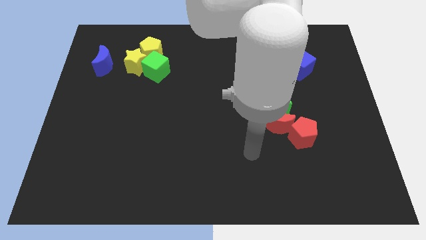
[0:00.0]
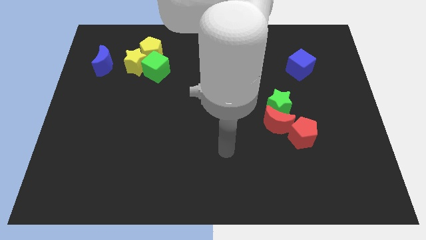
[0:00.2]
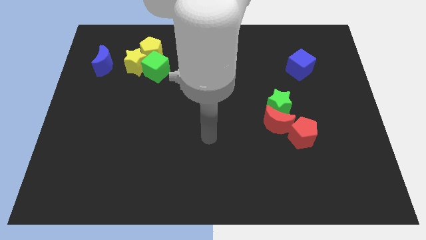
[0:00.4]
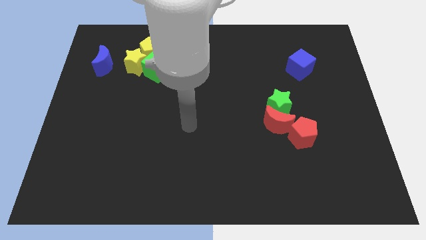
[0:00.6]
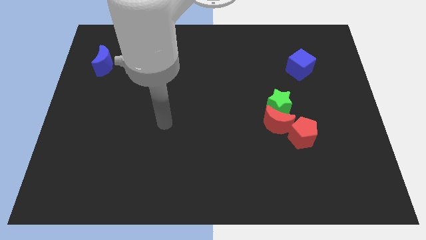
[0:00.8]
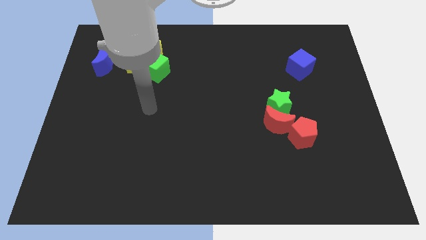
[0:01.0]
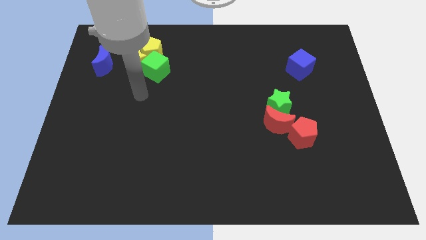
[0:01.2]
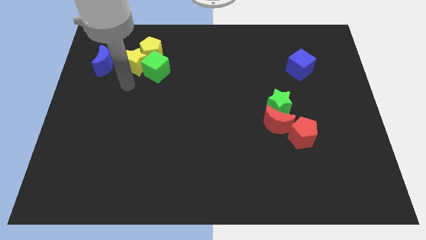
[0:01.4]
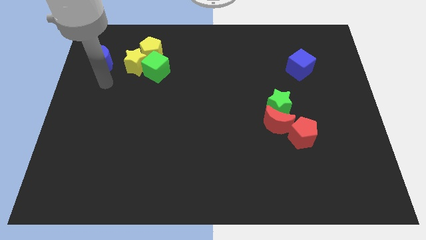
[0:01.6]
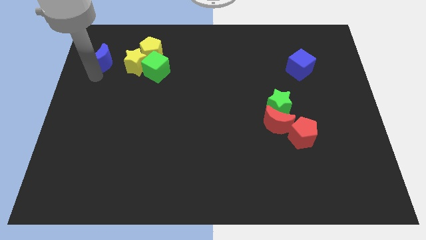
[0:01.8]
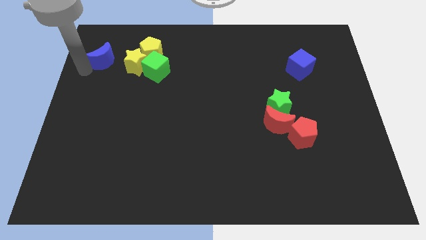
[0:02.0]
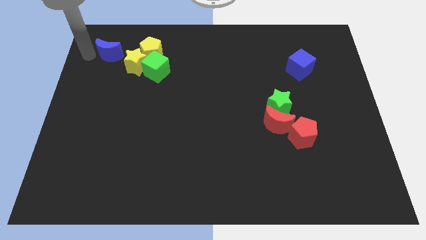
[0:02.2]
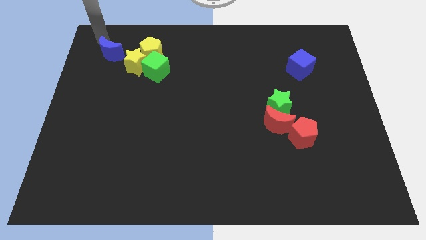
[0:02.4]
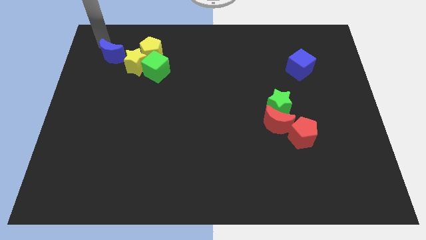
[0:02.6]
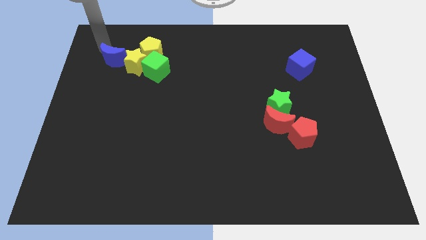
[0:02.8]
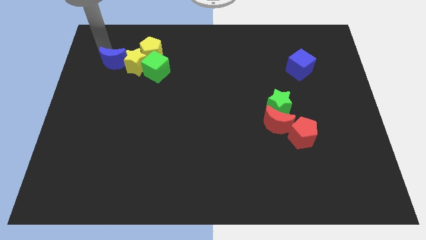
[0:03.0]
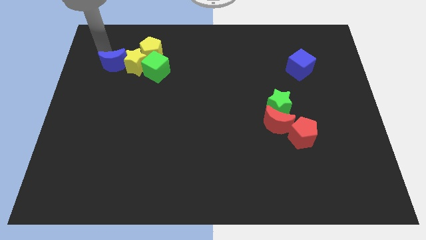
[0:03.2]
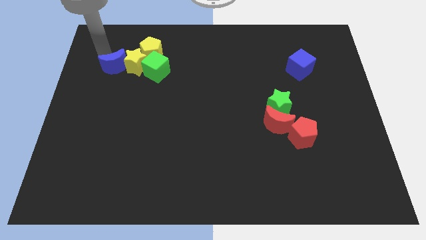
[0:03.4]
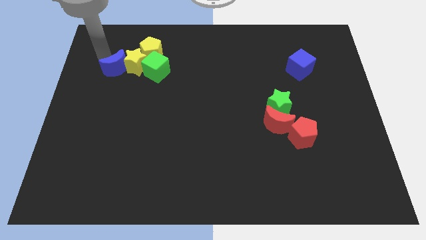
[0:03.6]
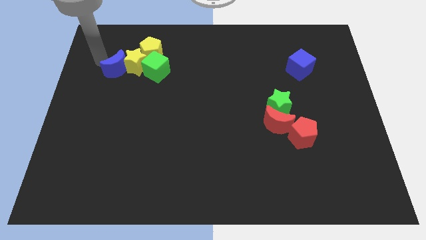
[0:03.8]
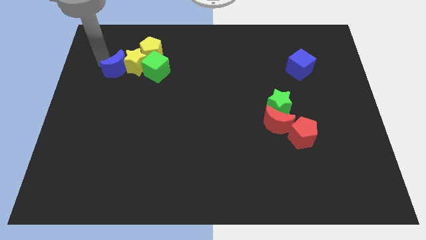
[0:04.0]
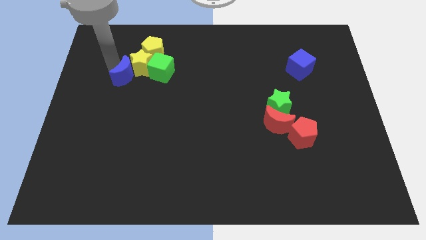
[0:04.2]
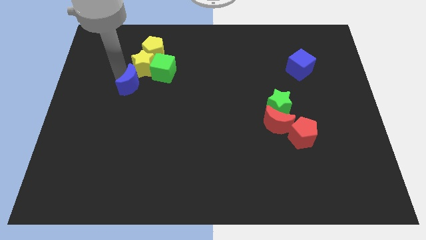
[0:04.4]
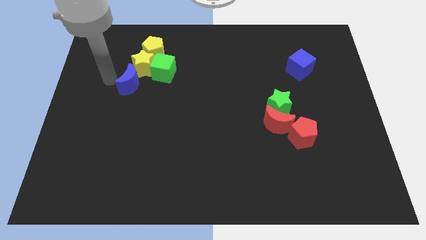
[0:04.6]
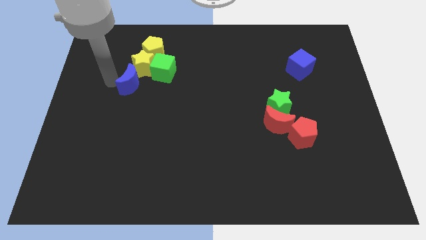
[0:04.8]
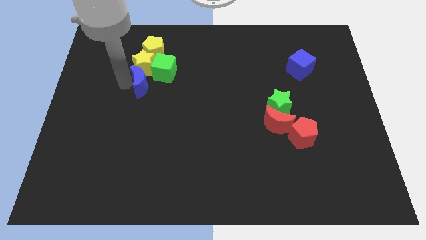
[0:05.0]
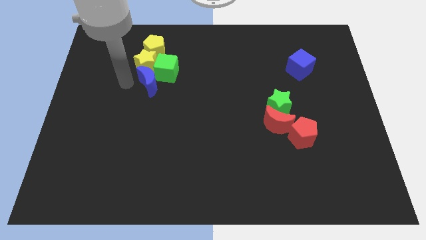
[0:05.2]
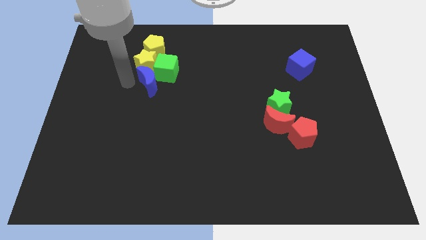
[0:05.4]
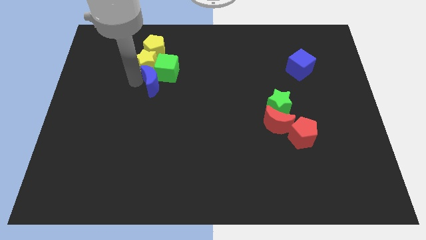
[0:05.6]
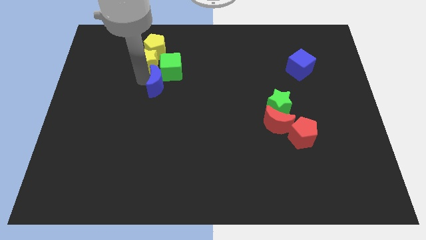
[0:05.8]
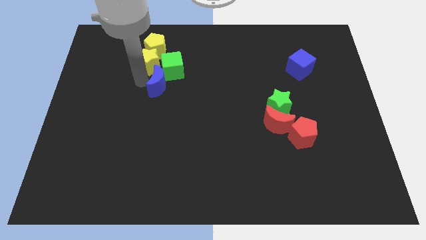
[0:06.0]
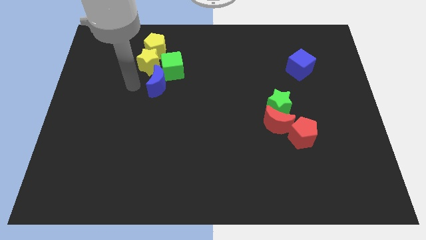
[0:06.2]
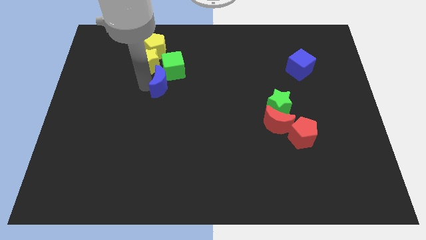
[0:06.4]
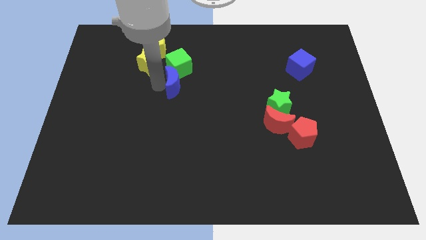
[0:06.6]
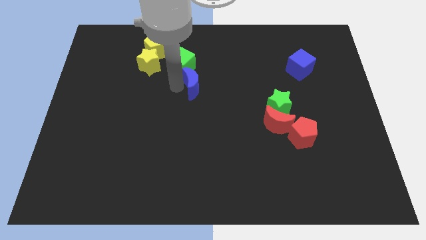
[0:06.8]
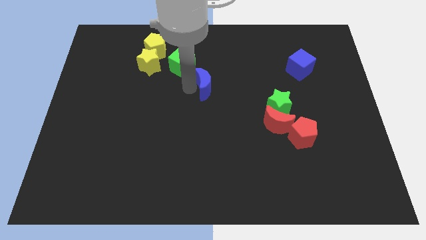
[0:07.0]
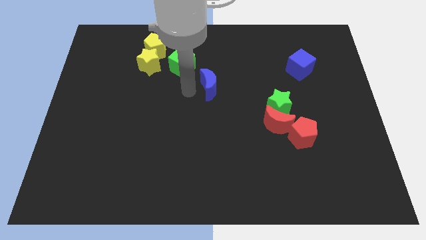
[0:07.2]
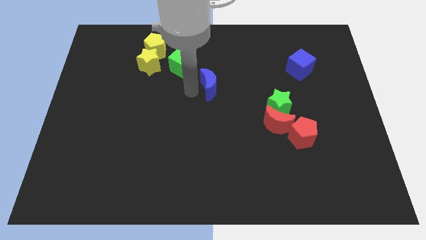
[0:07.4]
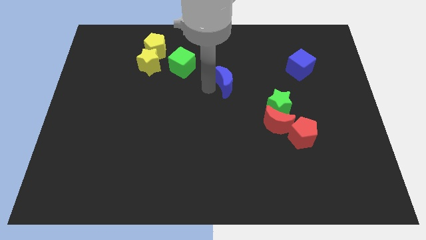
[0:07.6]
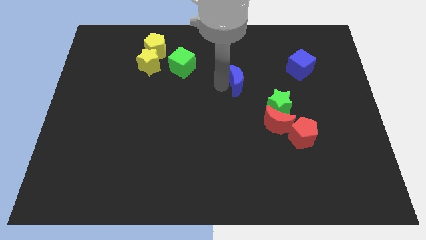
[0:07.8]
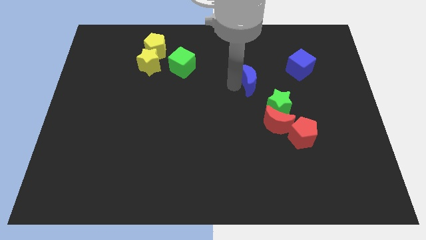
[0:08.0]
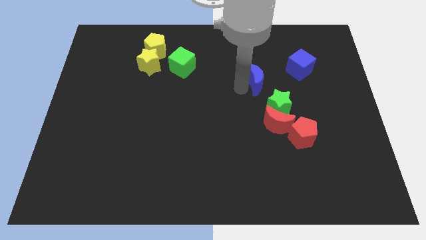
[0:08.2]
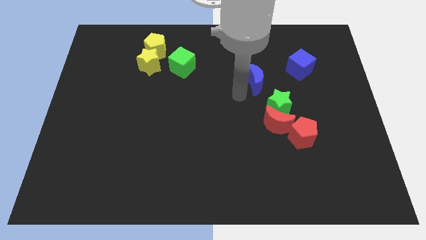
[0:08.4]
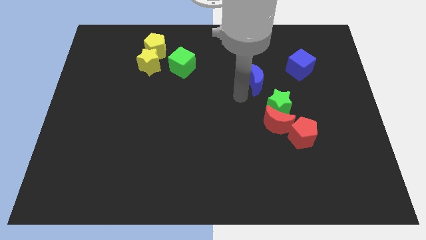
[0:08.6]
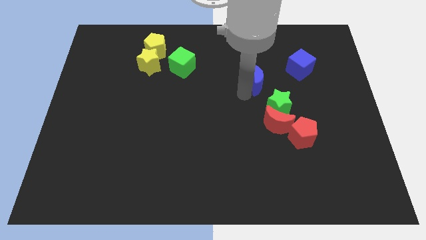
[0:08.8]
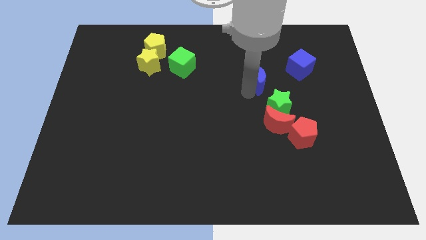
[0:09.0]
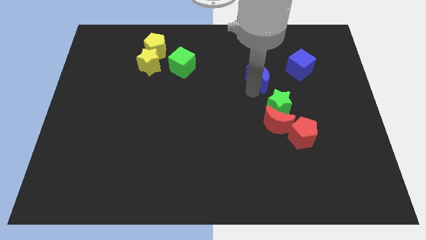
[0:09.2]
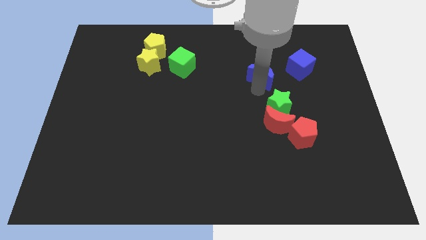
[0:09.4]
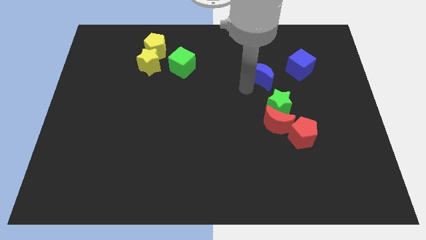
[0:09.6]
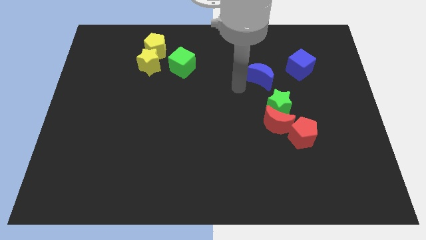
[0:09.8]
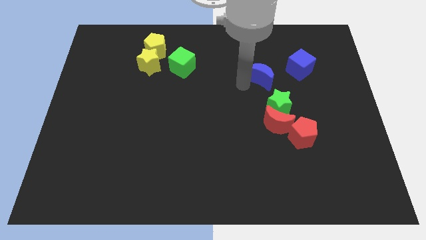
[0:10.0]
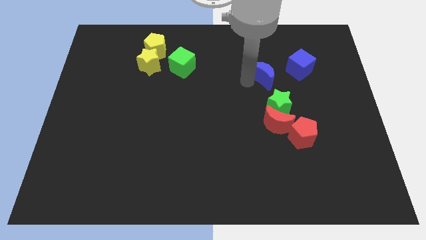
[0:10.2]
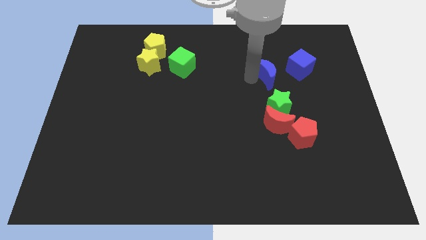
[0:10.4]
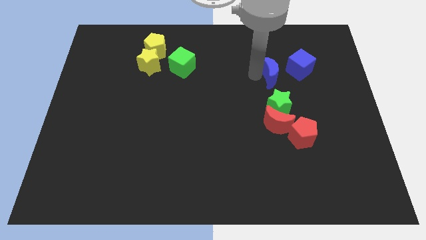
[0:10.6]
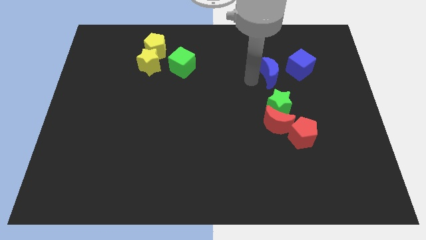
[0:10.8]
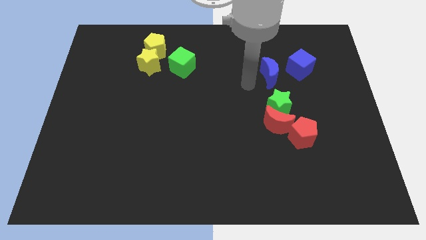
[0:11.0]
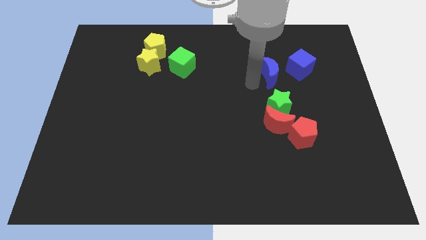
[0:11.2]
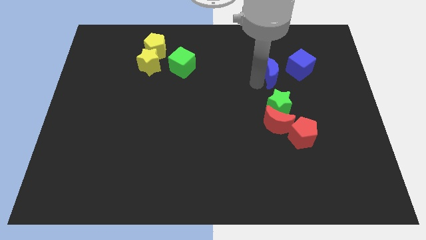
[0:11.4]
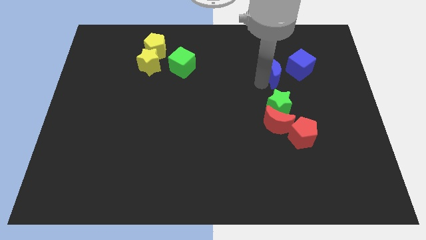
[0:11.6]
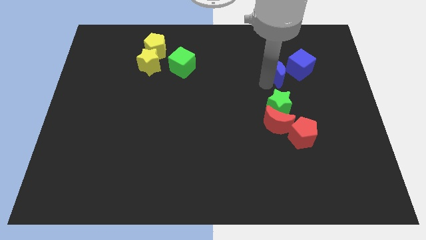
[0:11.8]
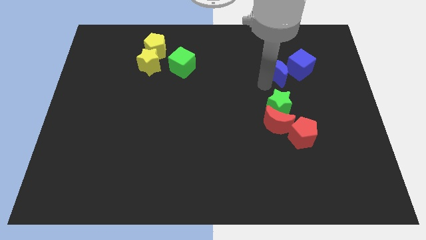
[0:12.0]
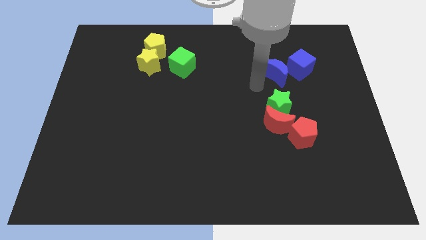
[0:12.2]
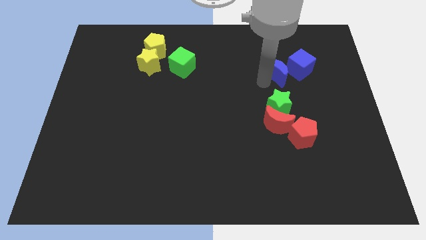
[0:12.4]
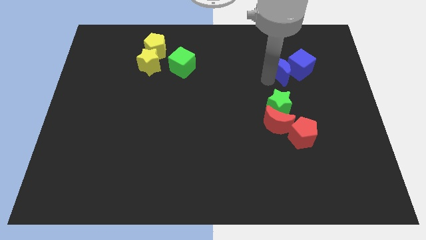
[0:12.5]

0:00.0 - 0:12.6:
slide the blue moon to the blue cube

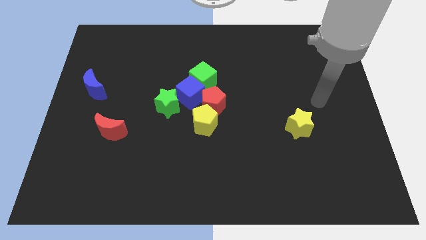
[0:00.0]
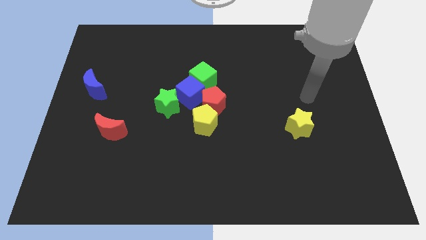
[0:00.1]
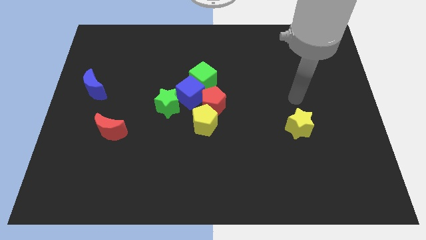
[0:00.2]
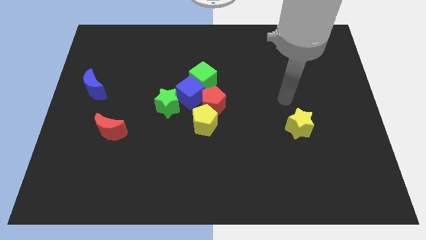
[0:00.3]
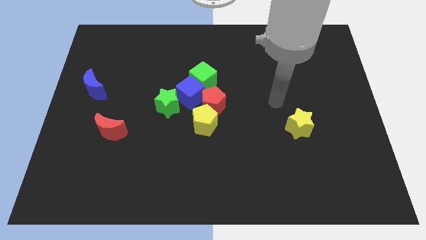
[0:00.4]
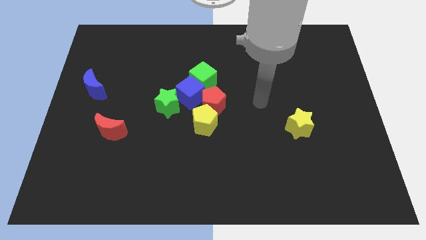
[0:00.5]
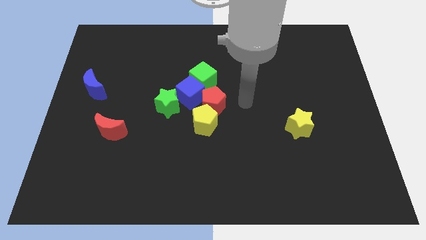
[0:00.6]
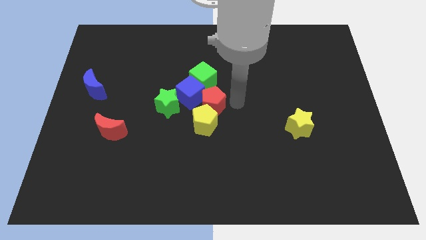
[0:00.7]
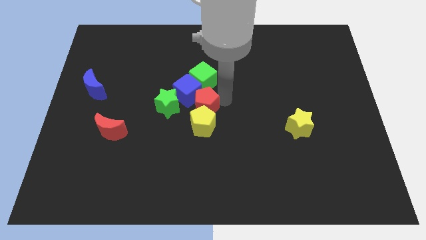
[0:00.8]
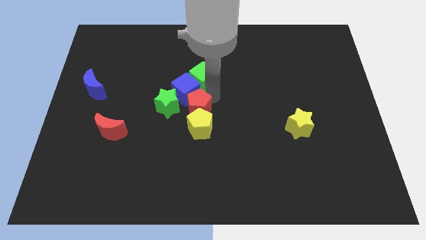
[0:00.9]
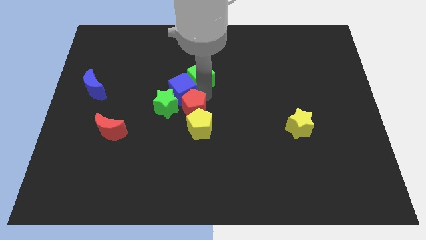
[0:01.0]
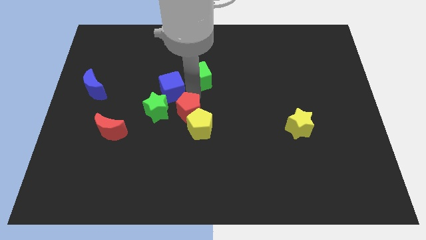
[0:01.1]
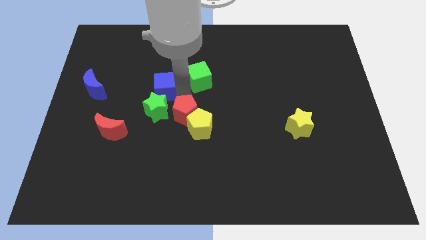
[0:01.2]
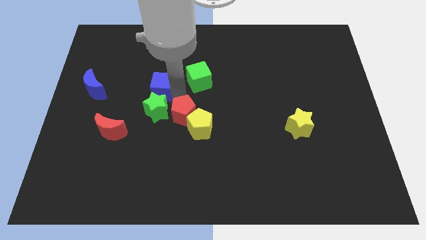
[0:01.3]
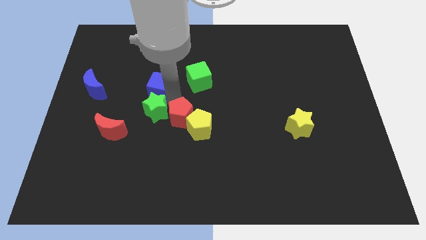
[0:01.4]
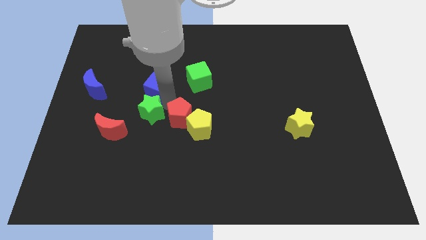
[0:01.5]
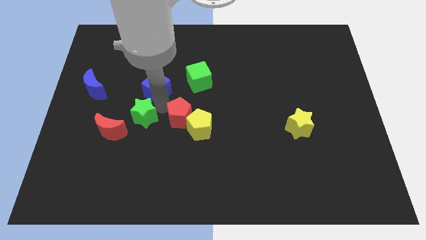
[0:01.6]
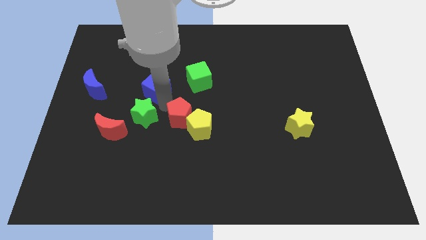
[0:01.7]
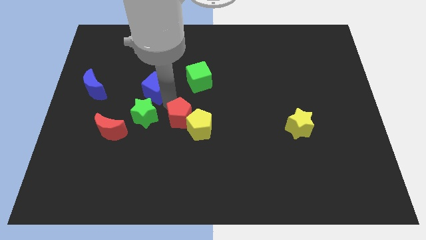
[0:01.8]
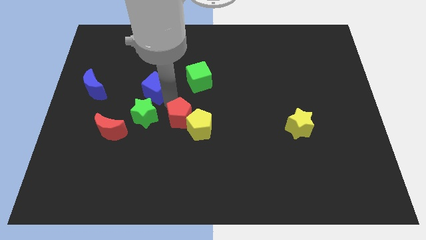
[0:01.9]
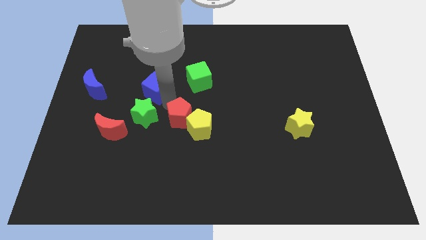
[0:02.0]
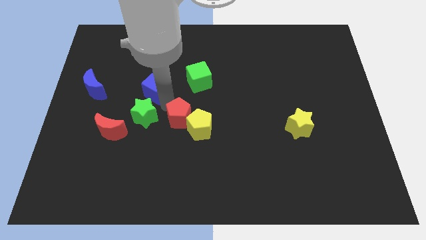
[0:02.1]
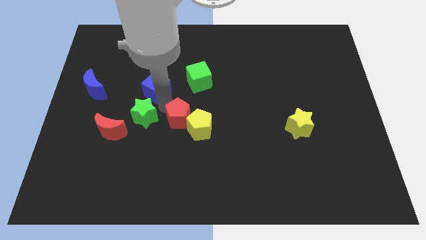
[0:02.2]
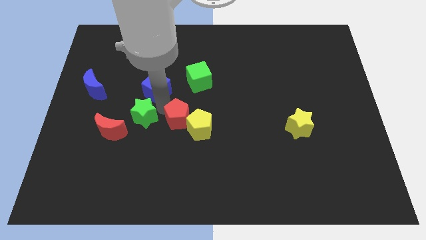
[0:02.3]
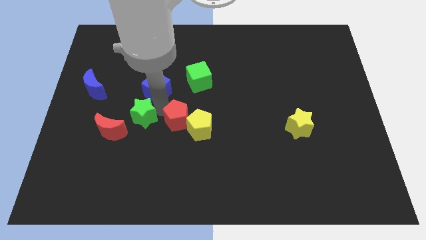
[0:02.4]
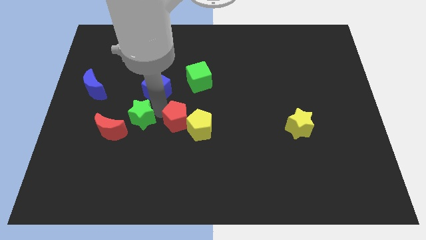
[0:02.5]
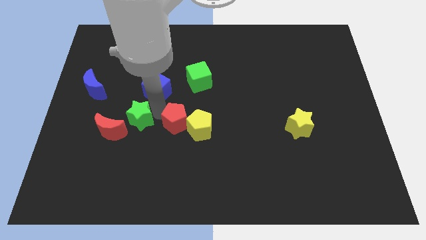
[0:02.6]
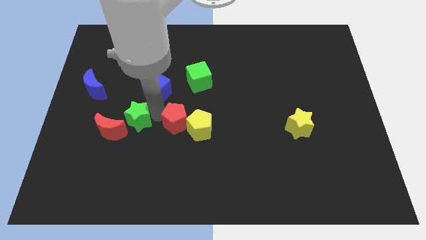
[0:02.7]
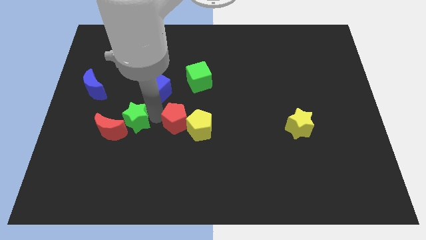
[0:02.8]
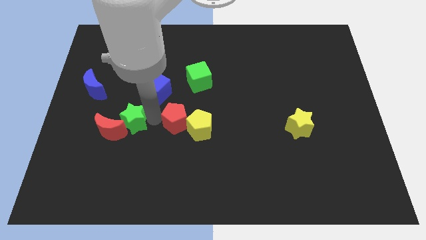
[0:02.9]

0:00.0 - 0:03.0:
put the green star close to the red moon
